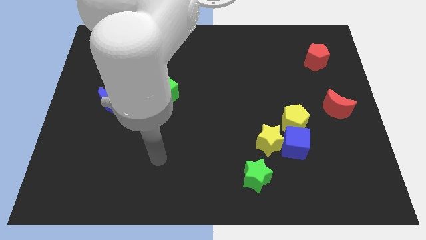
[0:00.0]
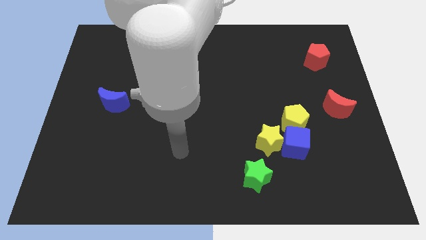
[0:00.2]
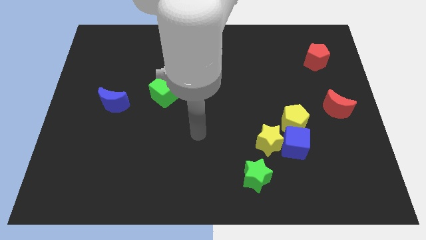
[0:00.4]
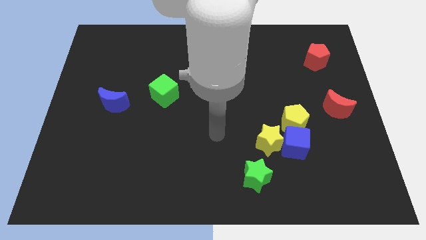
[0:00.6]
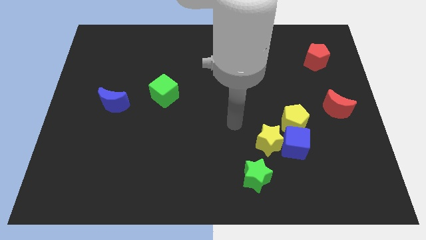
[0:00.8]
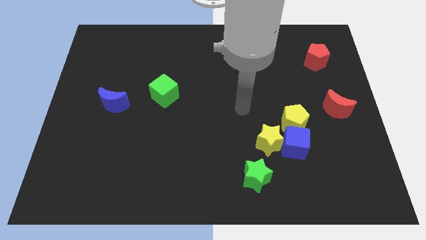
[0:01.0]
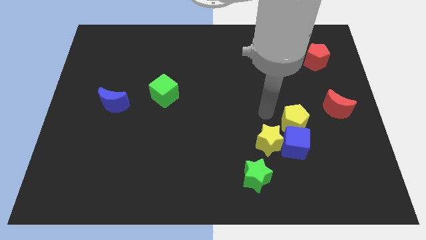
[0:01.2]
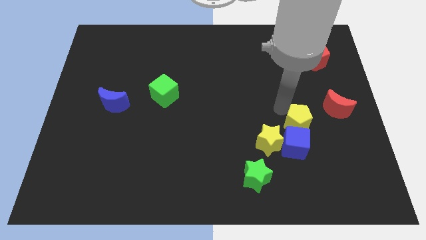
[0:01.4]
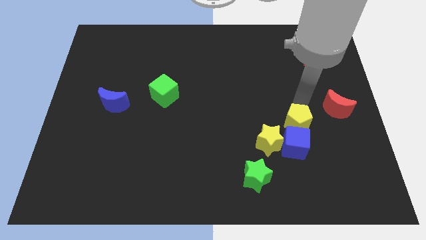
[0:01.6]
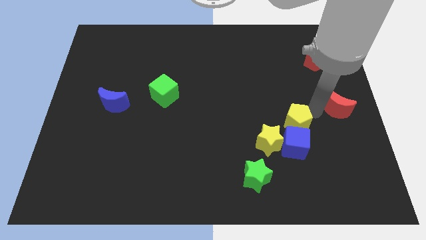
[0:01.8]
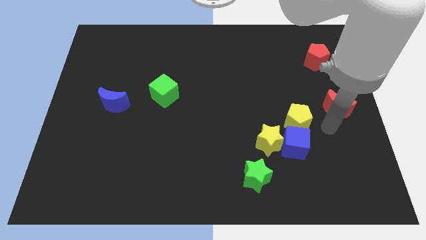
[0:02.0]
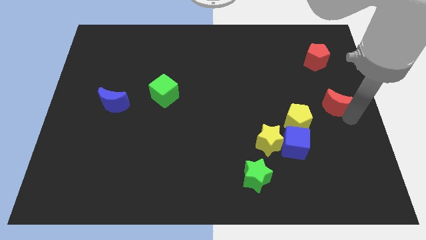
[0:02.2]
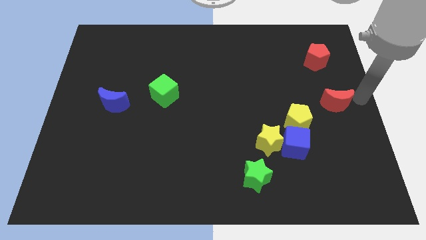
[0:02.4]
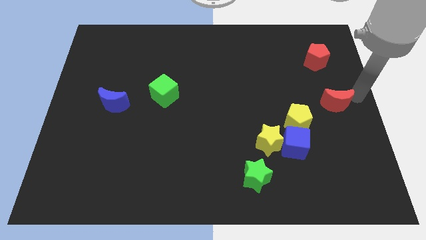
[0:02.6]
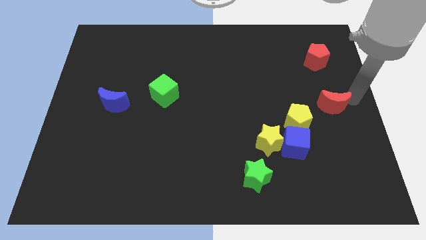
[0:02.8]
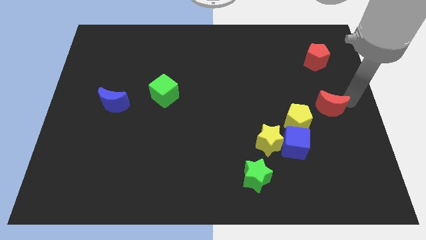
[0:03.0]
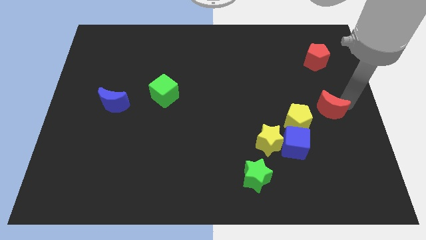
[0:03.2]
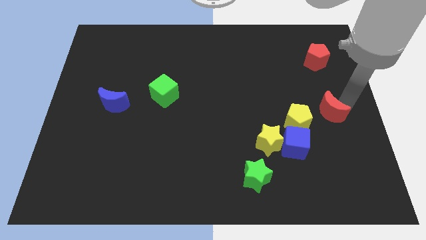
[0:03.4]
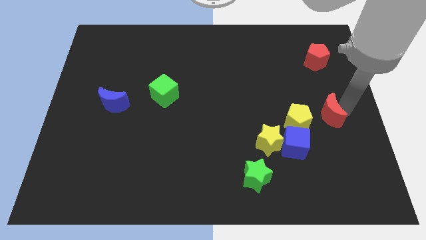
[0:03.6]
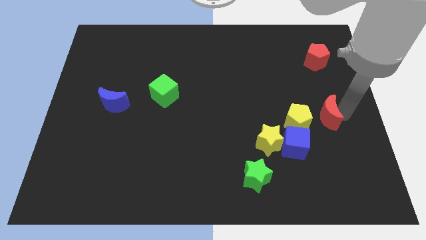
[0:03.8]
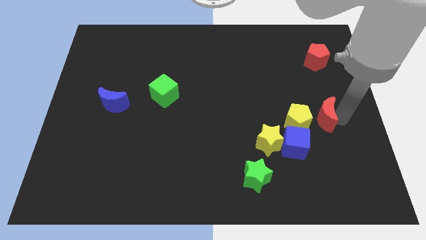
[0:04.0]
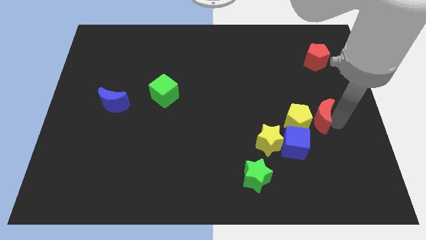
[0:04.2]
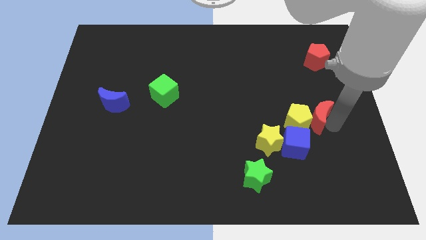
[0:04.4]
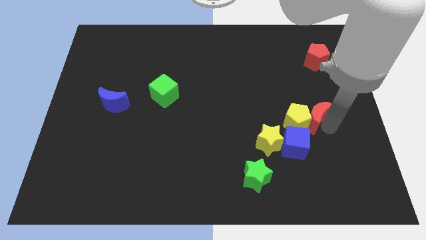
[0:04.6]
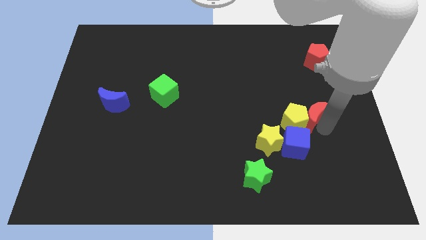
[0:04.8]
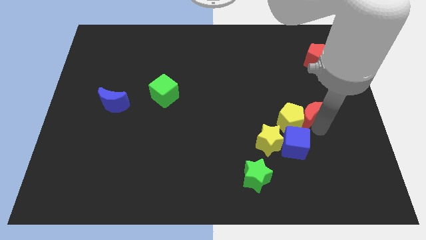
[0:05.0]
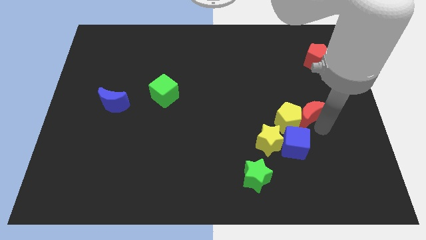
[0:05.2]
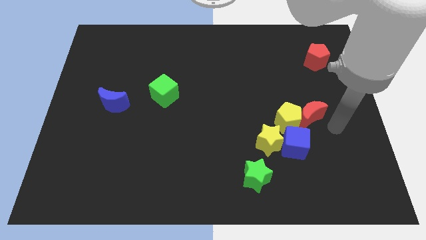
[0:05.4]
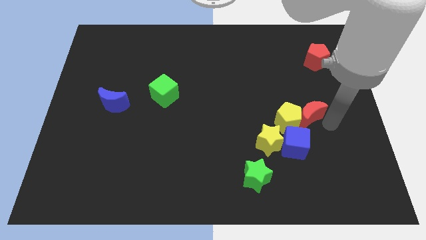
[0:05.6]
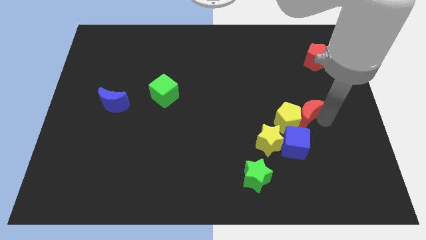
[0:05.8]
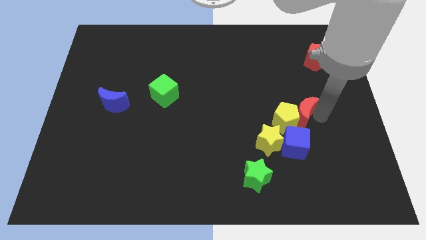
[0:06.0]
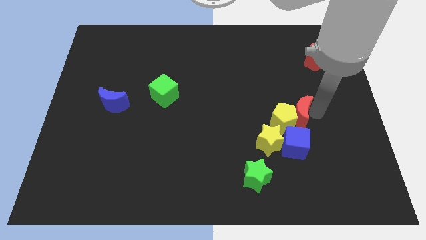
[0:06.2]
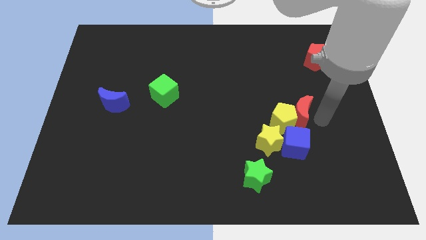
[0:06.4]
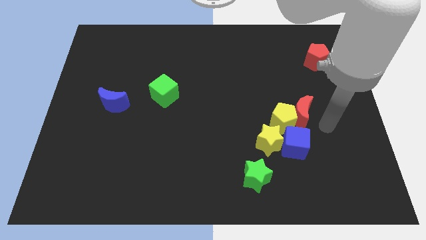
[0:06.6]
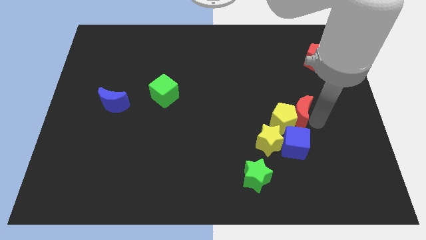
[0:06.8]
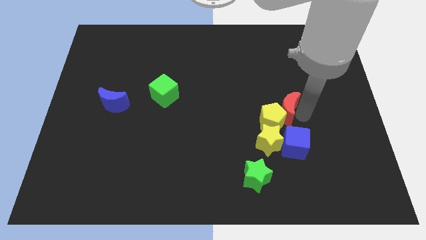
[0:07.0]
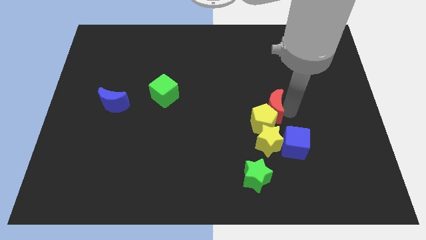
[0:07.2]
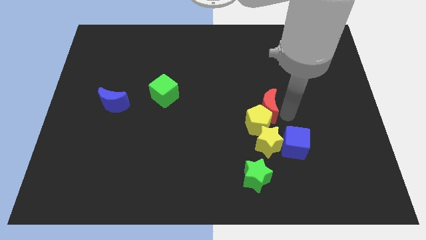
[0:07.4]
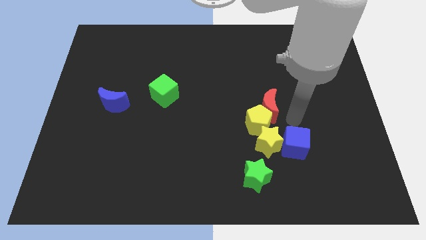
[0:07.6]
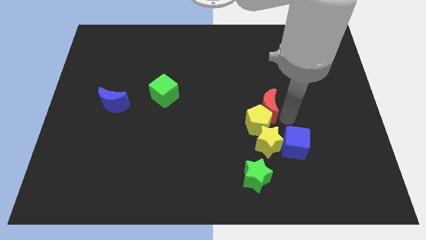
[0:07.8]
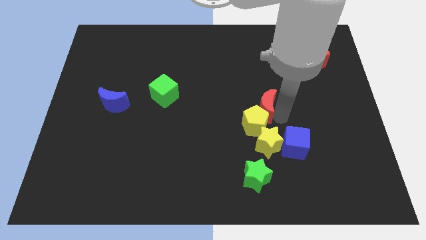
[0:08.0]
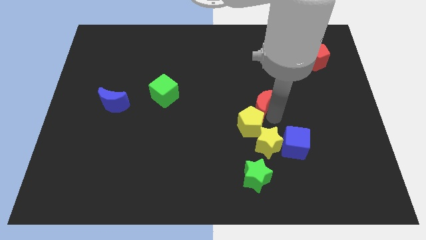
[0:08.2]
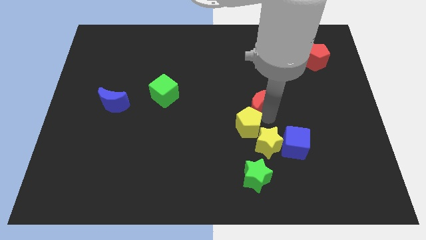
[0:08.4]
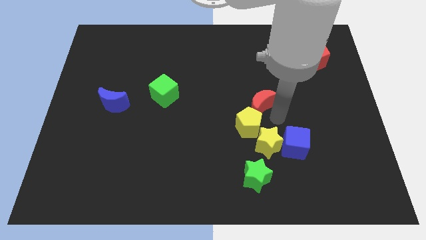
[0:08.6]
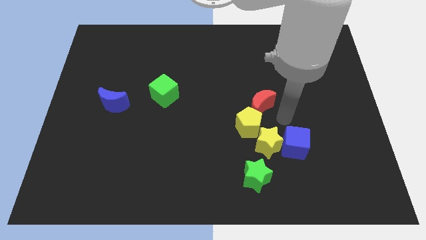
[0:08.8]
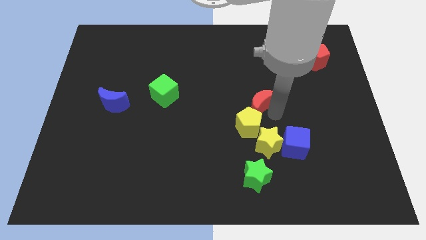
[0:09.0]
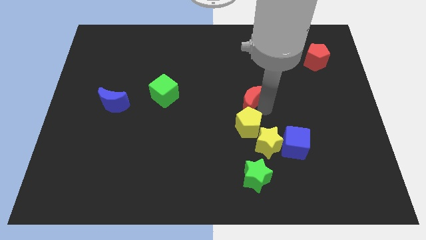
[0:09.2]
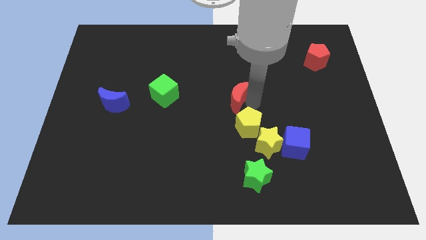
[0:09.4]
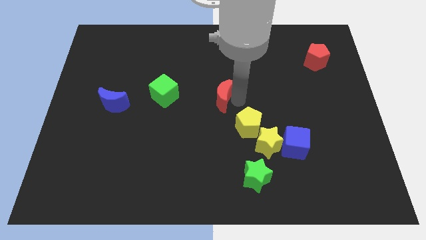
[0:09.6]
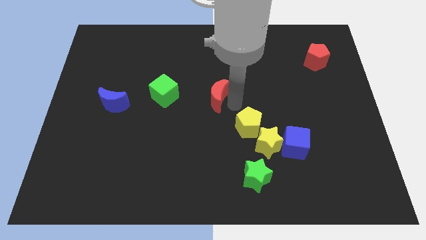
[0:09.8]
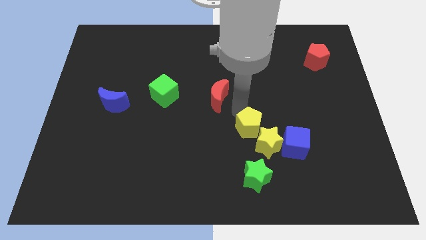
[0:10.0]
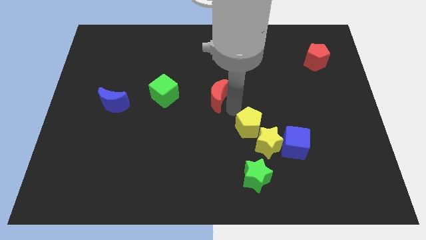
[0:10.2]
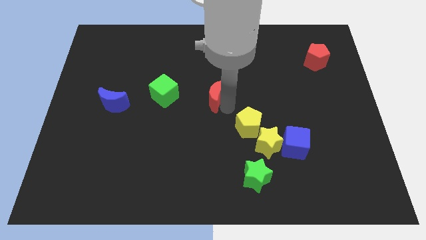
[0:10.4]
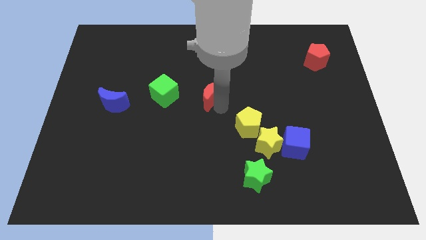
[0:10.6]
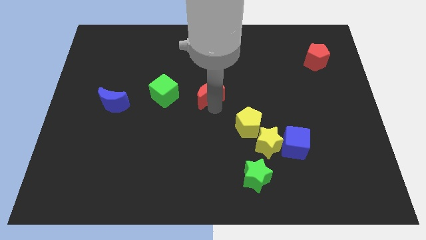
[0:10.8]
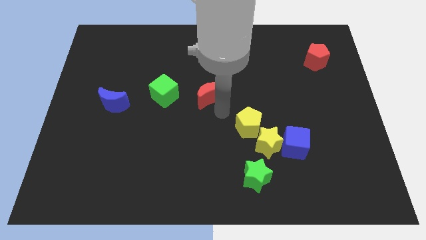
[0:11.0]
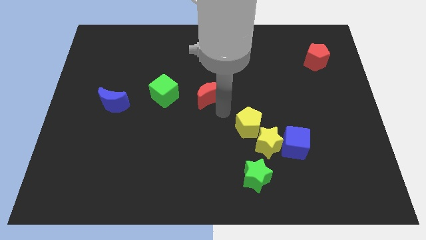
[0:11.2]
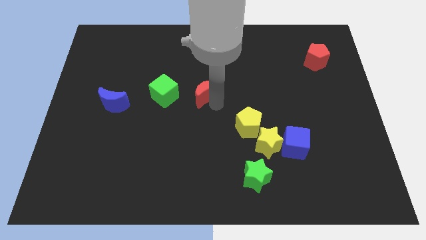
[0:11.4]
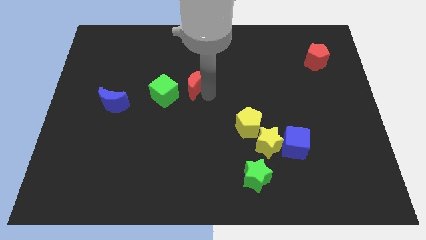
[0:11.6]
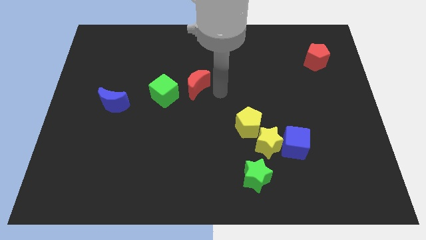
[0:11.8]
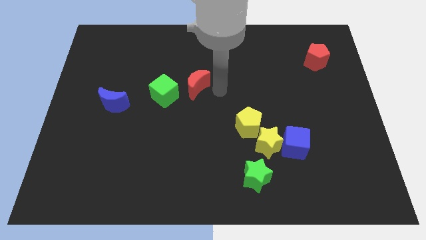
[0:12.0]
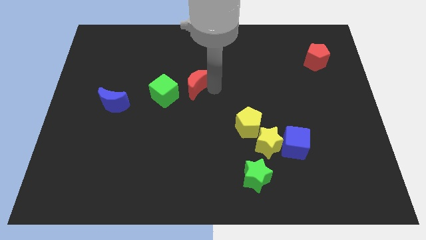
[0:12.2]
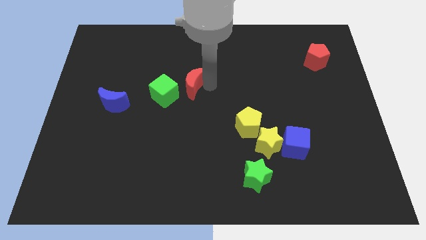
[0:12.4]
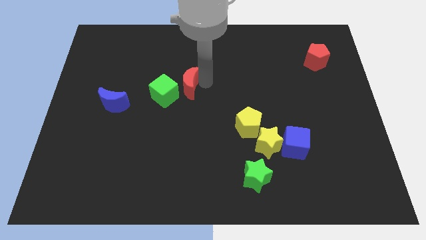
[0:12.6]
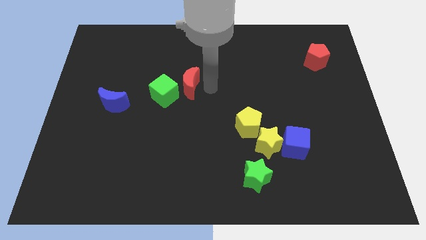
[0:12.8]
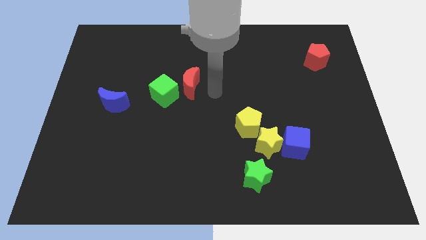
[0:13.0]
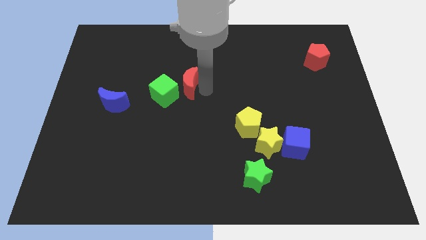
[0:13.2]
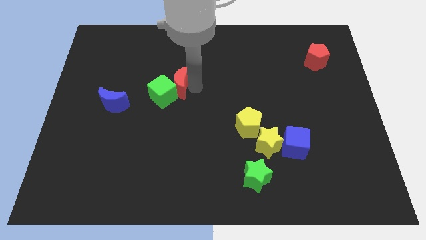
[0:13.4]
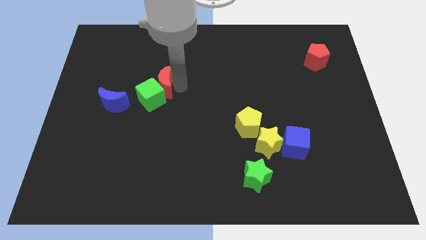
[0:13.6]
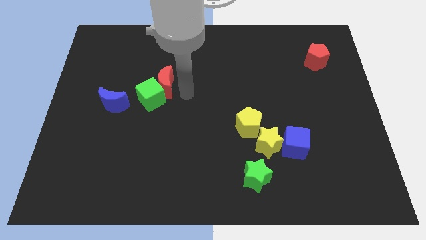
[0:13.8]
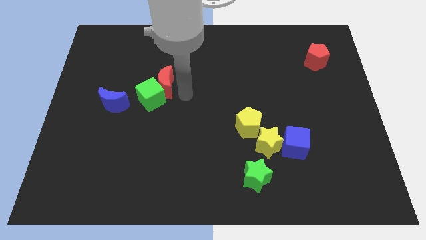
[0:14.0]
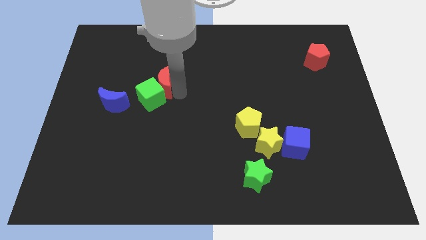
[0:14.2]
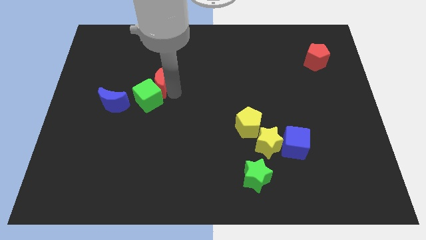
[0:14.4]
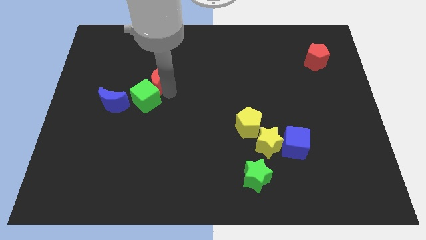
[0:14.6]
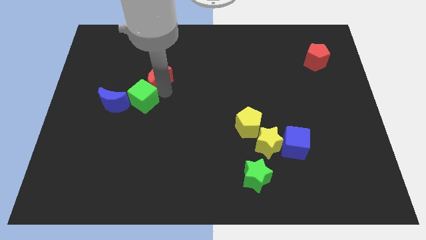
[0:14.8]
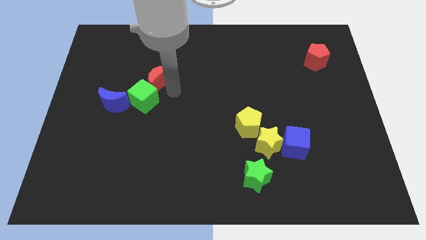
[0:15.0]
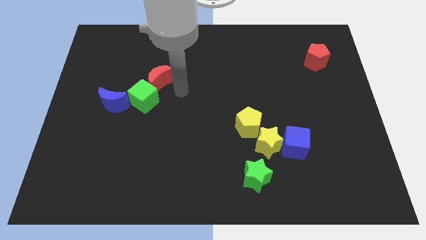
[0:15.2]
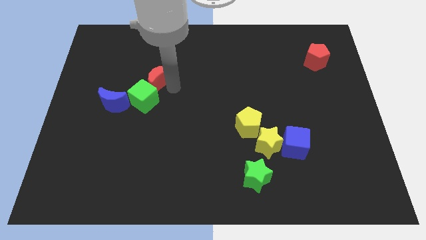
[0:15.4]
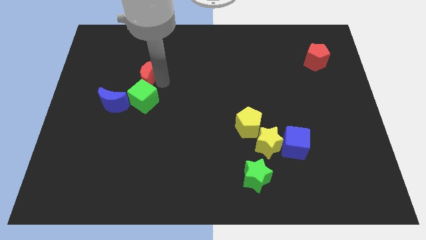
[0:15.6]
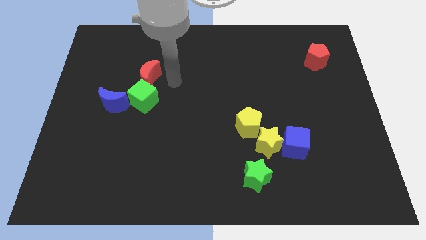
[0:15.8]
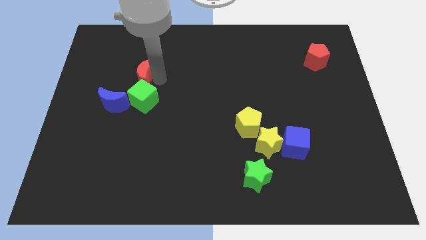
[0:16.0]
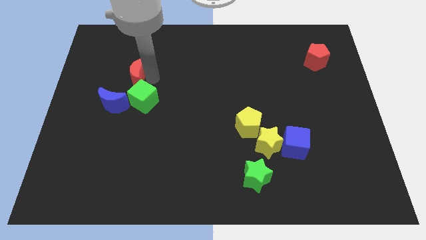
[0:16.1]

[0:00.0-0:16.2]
move the red moon to the top of the blue moon
